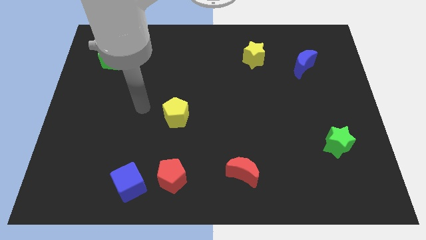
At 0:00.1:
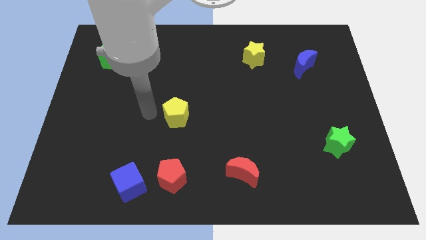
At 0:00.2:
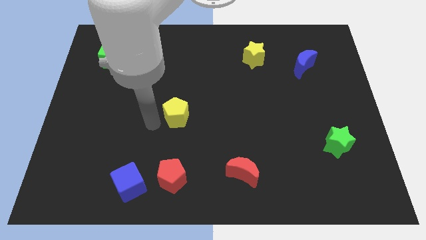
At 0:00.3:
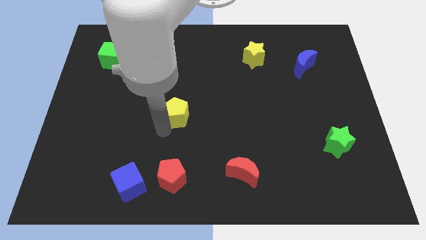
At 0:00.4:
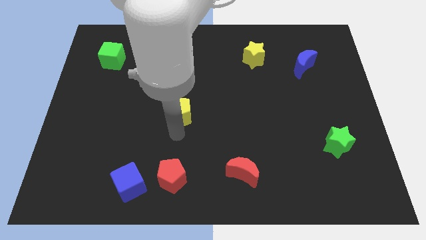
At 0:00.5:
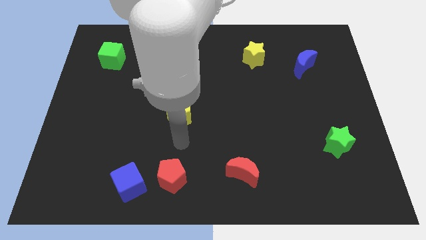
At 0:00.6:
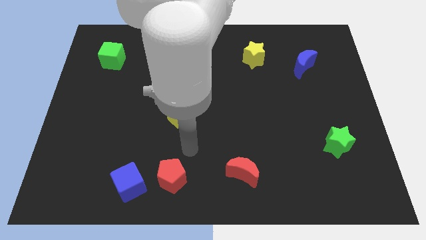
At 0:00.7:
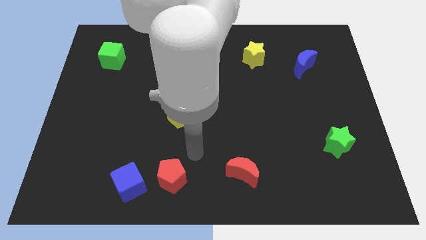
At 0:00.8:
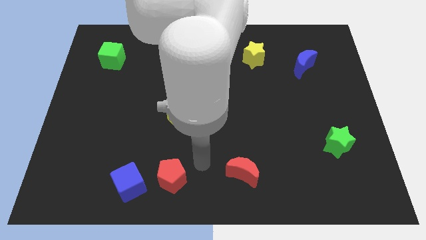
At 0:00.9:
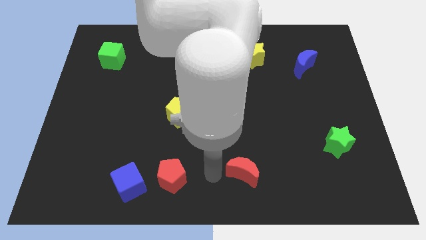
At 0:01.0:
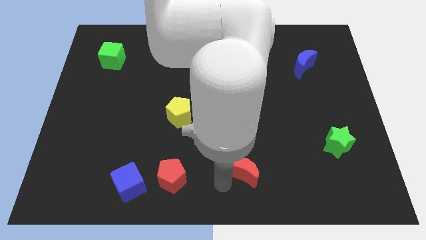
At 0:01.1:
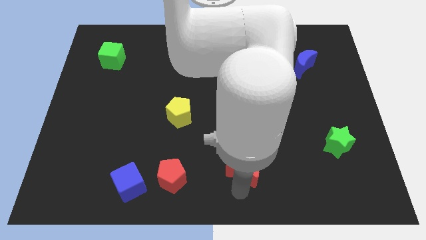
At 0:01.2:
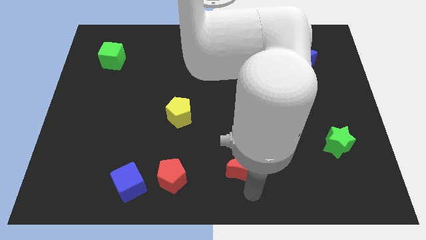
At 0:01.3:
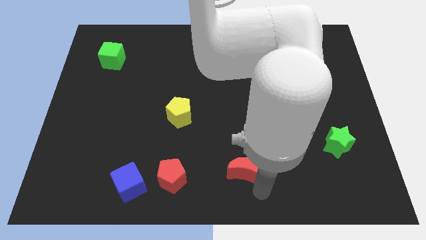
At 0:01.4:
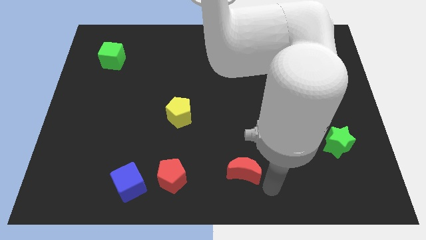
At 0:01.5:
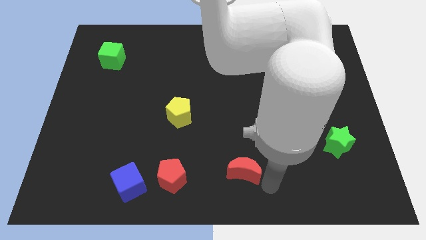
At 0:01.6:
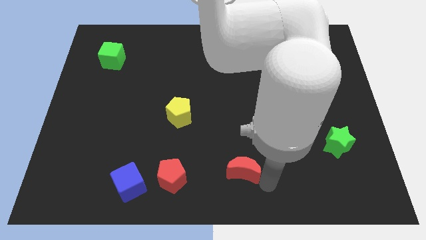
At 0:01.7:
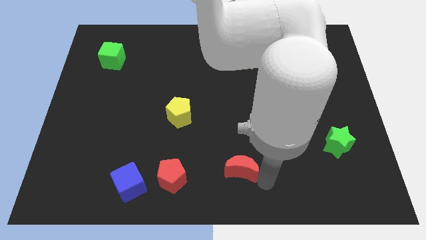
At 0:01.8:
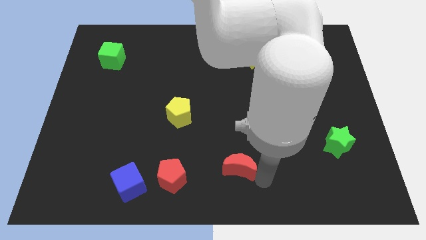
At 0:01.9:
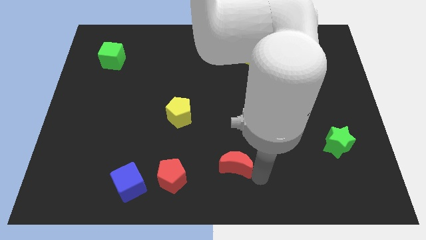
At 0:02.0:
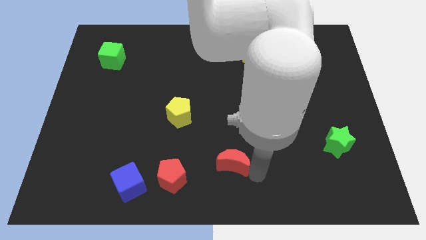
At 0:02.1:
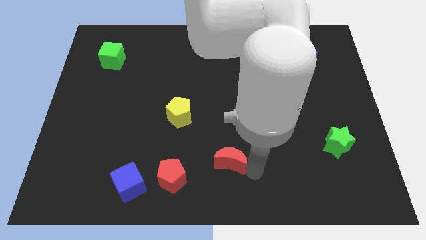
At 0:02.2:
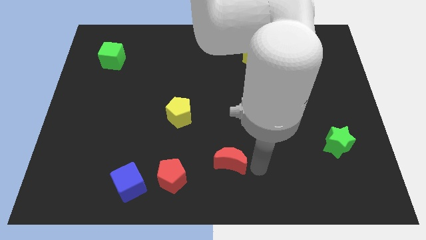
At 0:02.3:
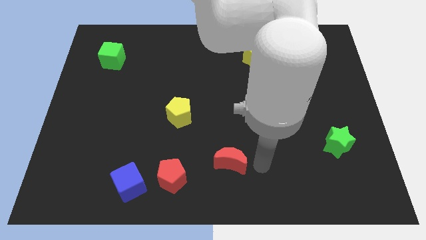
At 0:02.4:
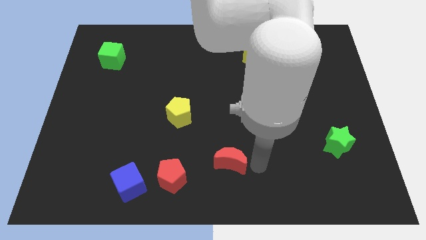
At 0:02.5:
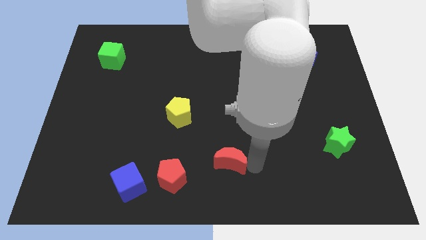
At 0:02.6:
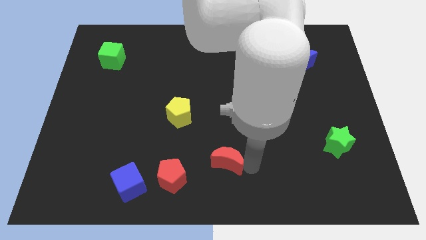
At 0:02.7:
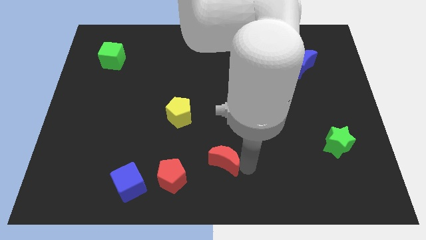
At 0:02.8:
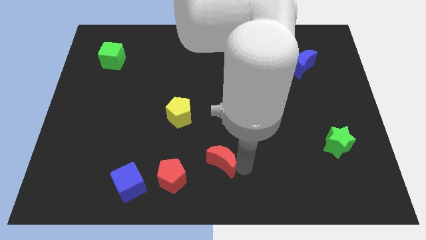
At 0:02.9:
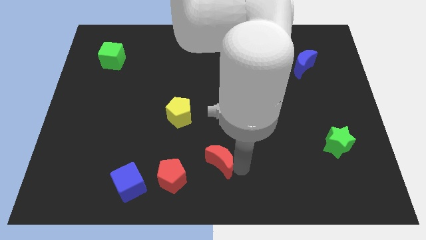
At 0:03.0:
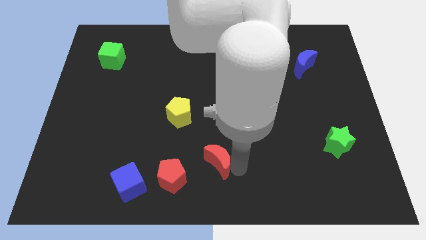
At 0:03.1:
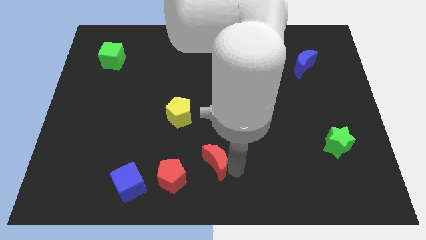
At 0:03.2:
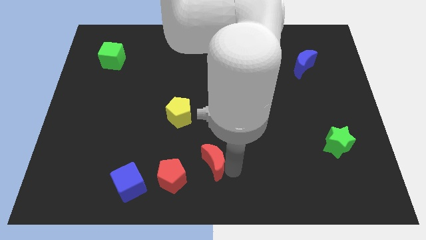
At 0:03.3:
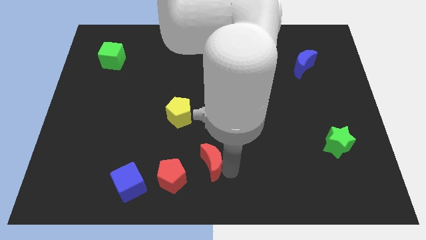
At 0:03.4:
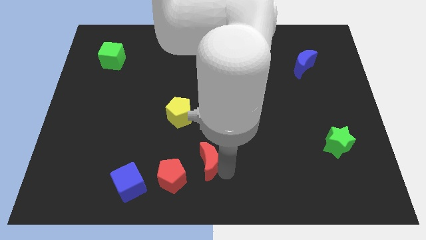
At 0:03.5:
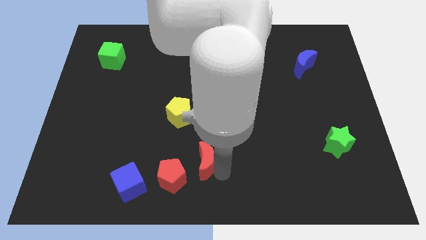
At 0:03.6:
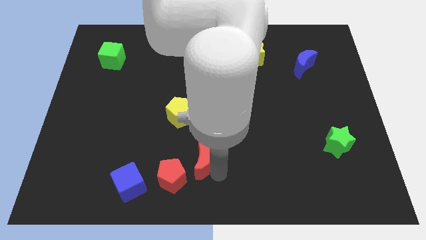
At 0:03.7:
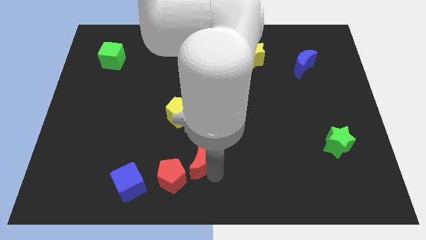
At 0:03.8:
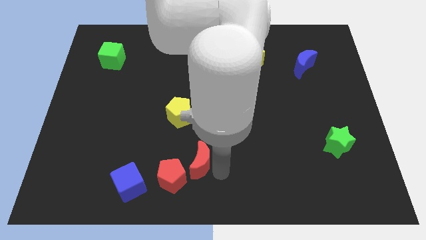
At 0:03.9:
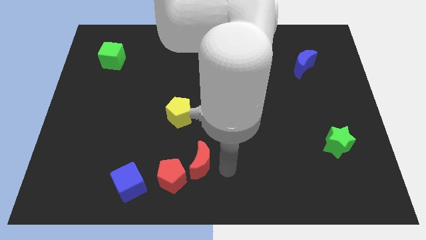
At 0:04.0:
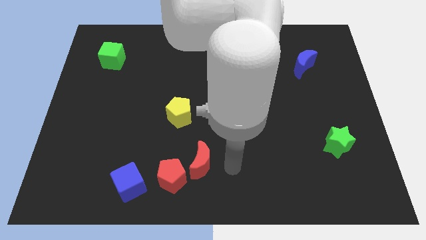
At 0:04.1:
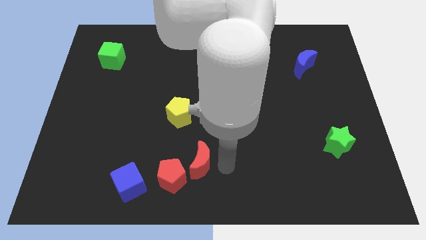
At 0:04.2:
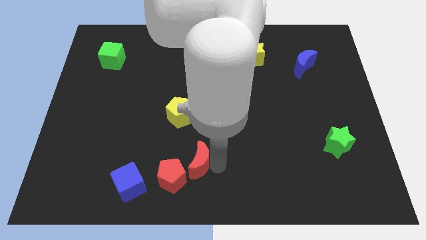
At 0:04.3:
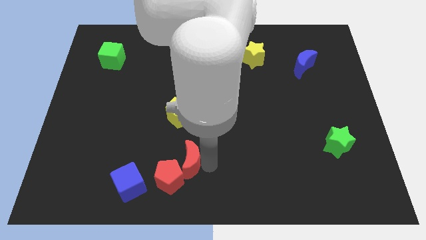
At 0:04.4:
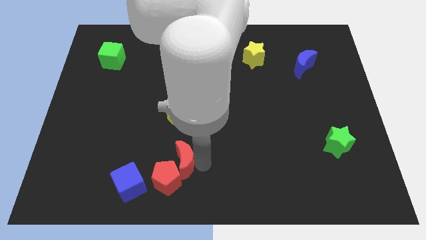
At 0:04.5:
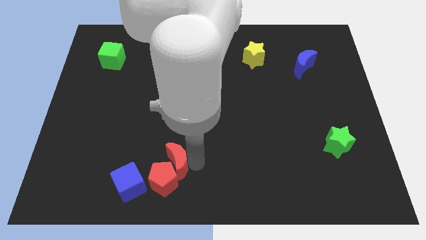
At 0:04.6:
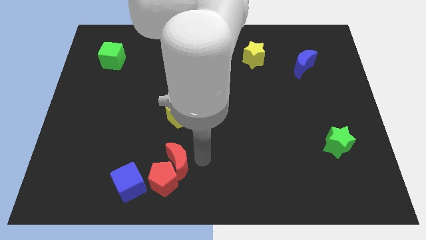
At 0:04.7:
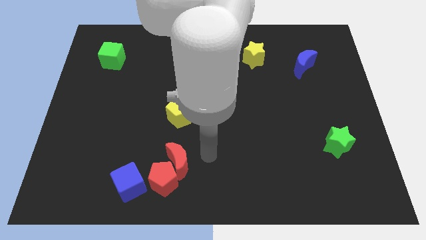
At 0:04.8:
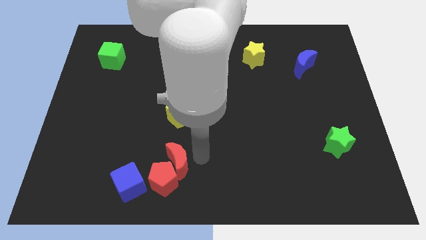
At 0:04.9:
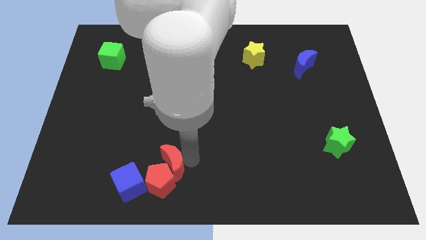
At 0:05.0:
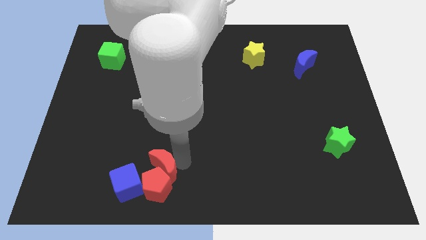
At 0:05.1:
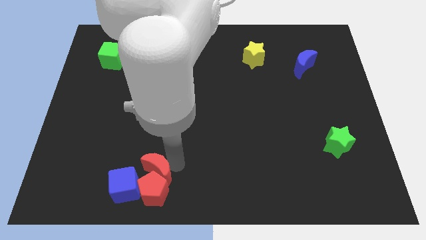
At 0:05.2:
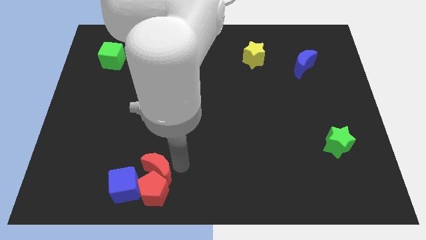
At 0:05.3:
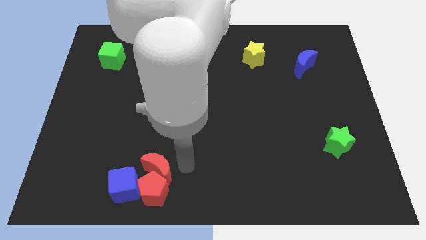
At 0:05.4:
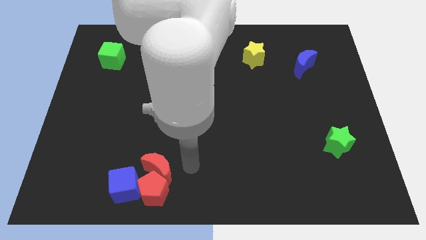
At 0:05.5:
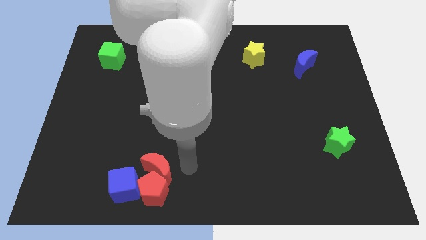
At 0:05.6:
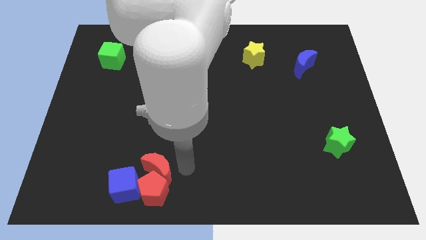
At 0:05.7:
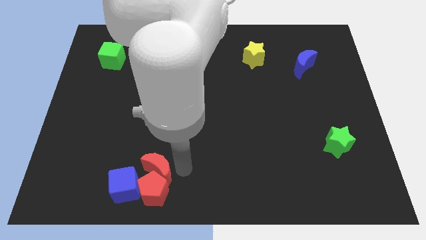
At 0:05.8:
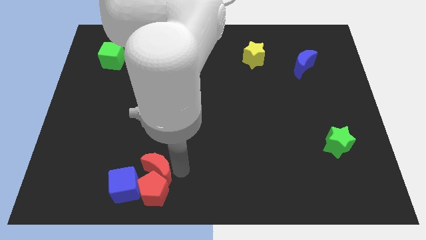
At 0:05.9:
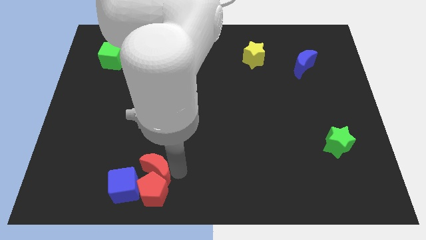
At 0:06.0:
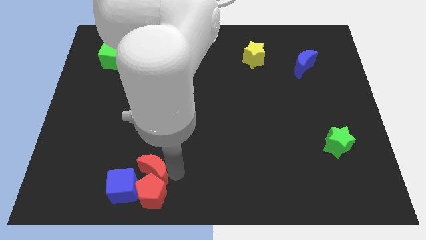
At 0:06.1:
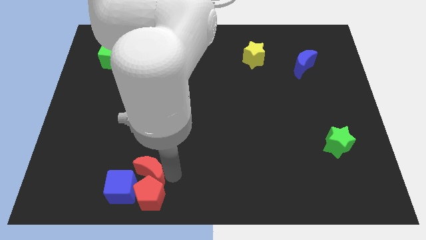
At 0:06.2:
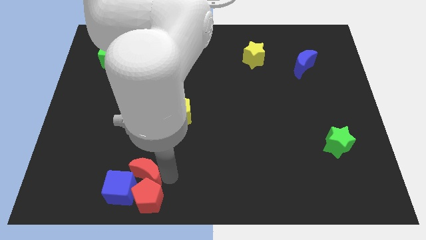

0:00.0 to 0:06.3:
put the red moon next to the blue cube

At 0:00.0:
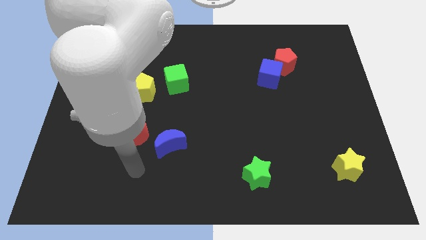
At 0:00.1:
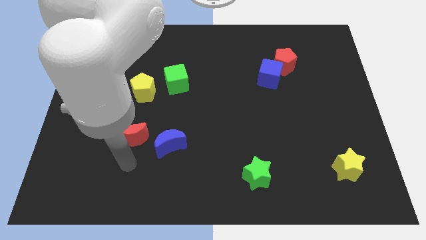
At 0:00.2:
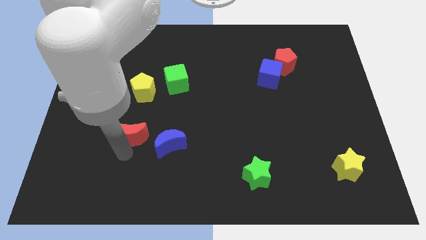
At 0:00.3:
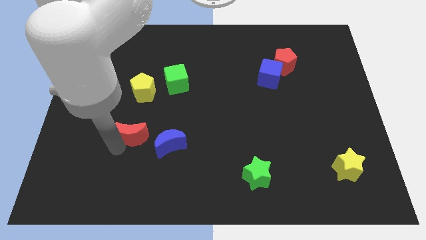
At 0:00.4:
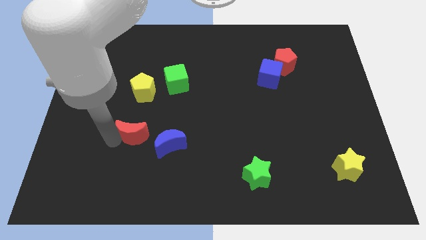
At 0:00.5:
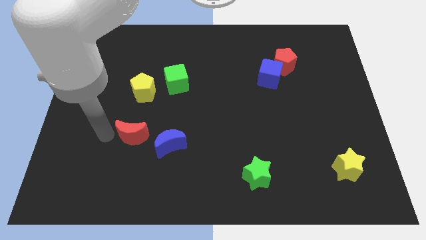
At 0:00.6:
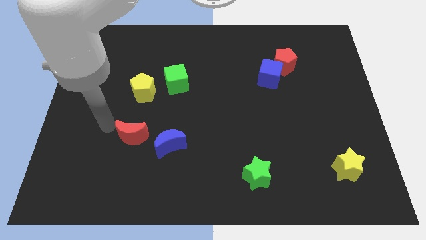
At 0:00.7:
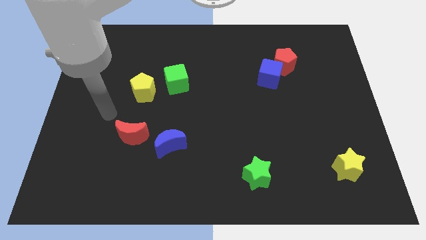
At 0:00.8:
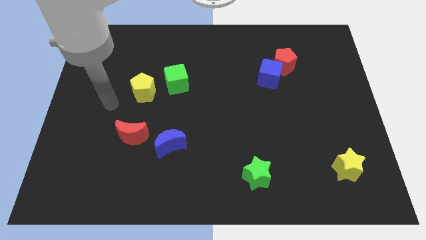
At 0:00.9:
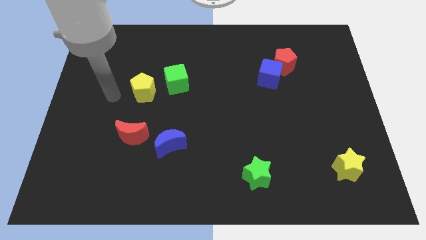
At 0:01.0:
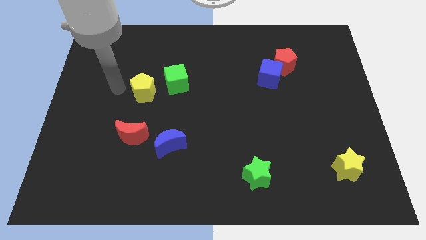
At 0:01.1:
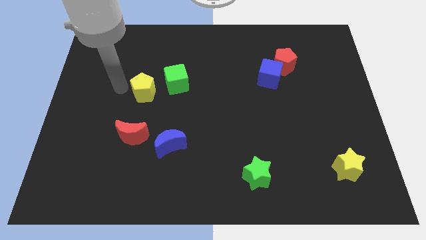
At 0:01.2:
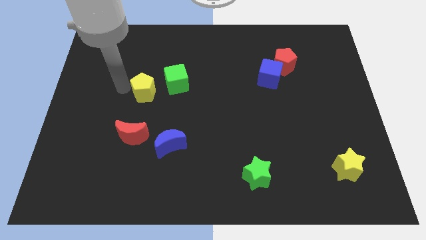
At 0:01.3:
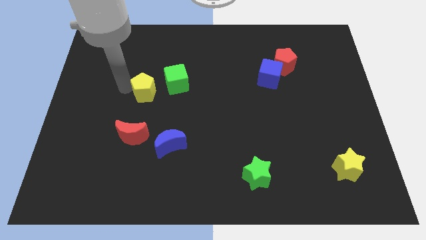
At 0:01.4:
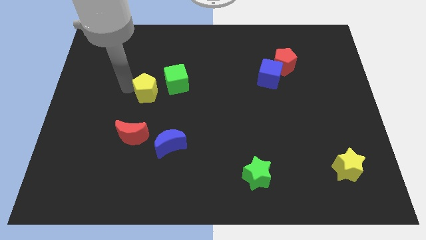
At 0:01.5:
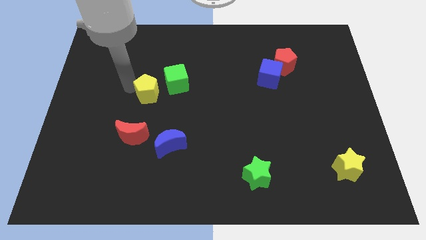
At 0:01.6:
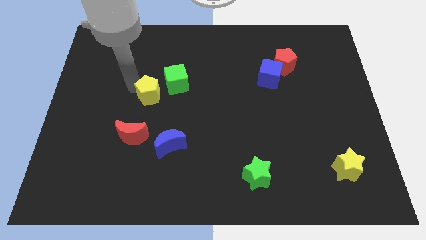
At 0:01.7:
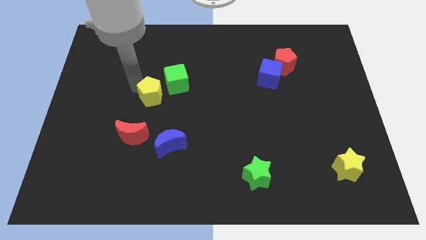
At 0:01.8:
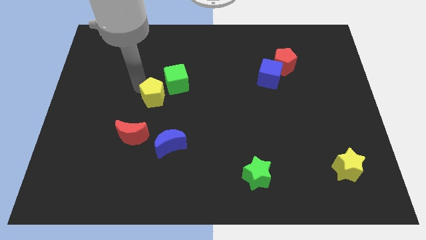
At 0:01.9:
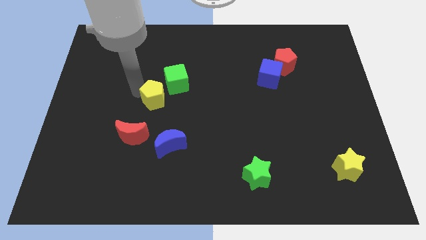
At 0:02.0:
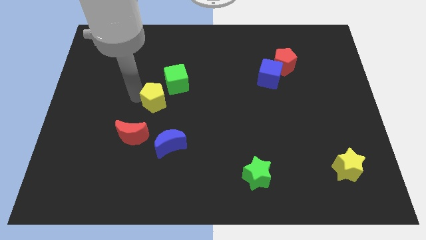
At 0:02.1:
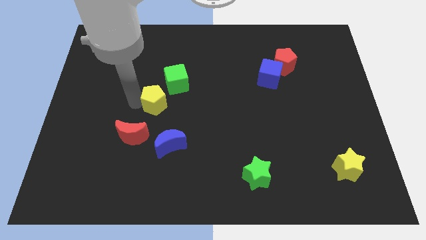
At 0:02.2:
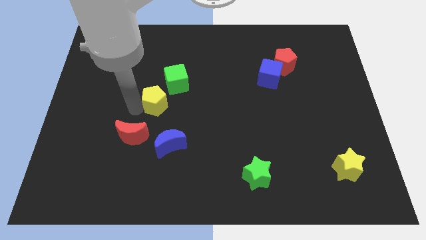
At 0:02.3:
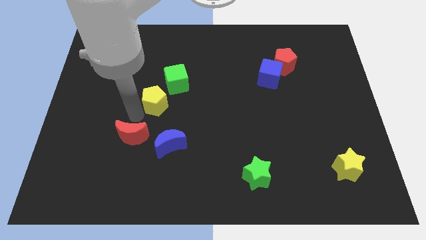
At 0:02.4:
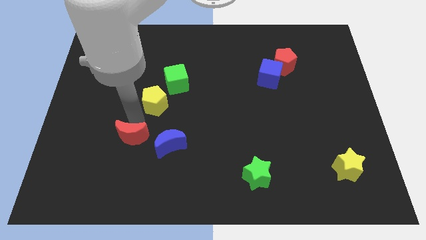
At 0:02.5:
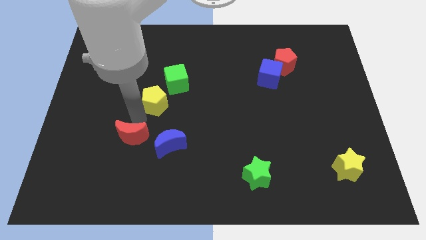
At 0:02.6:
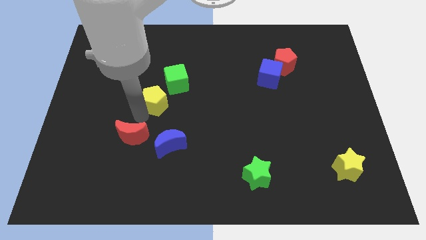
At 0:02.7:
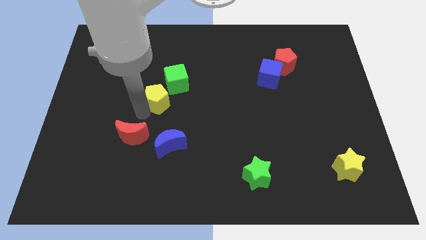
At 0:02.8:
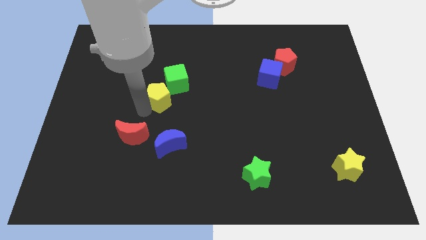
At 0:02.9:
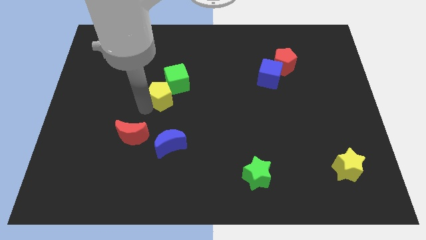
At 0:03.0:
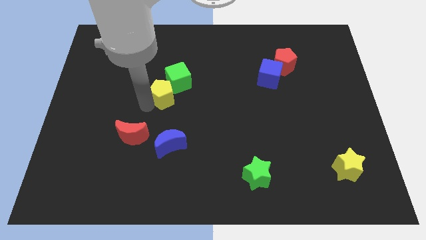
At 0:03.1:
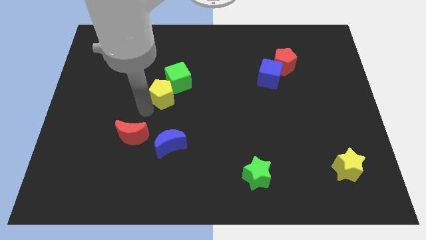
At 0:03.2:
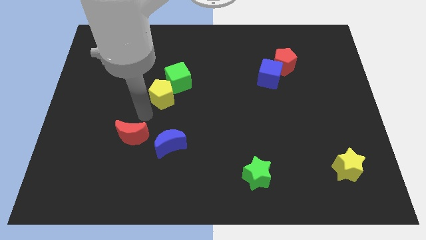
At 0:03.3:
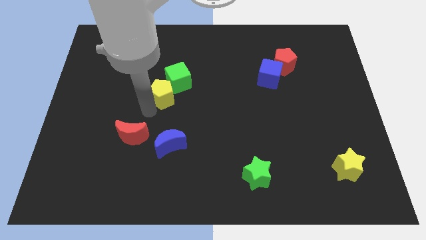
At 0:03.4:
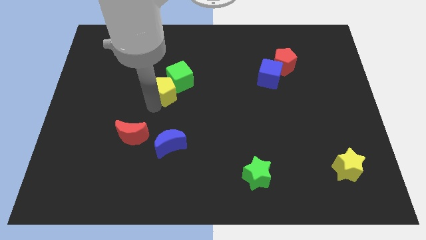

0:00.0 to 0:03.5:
move the yellow pentagon next to the green cube
